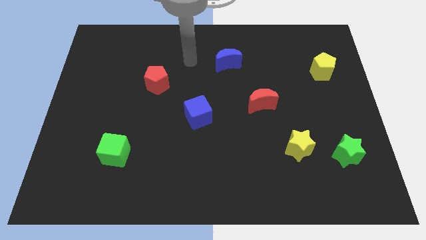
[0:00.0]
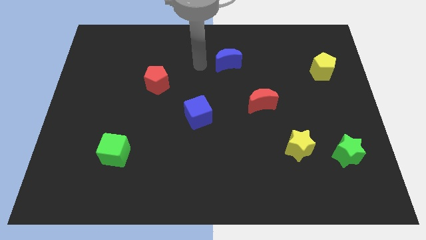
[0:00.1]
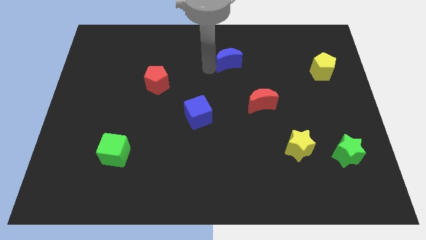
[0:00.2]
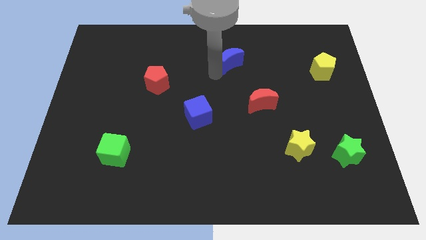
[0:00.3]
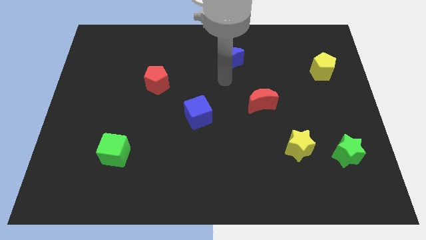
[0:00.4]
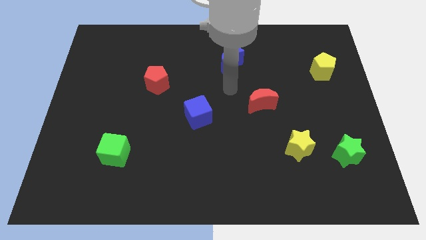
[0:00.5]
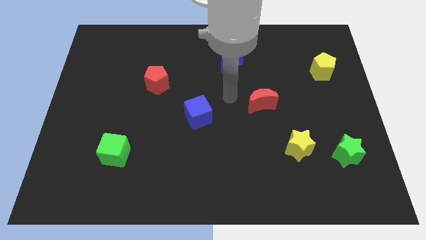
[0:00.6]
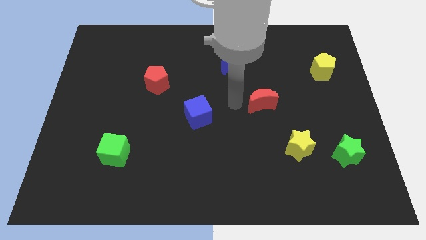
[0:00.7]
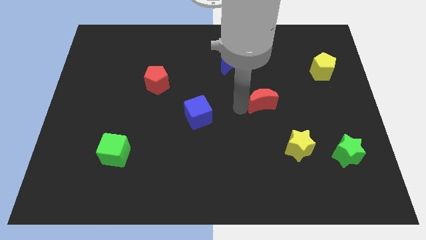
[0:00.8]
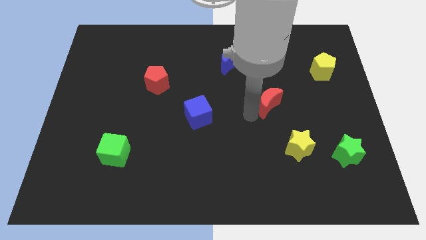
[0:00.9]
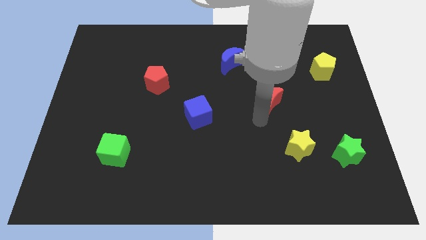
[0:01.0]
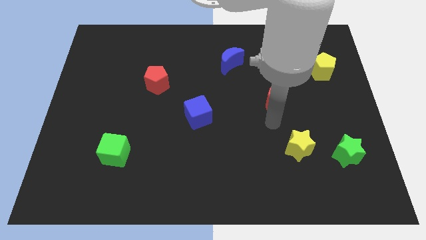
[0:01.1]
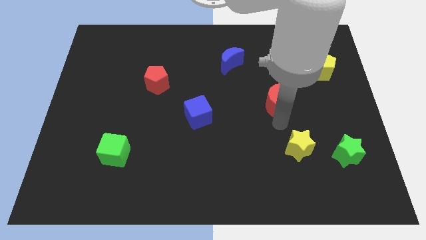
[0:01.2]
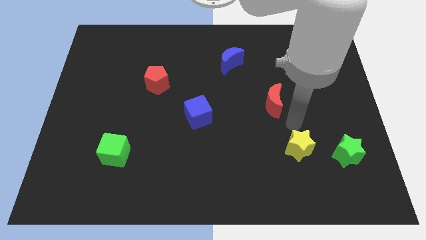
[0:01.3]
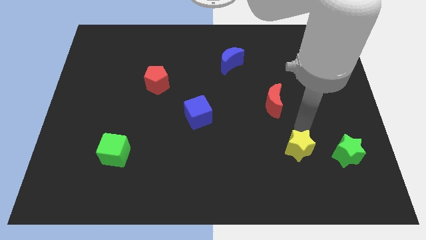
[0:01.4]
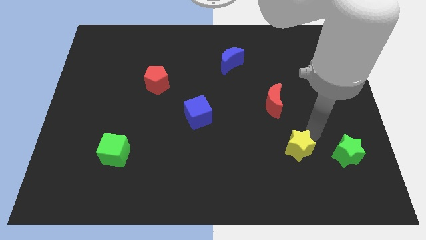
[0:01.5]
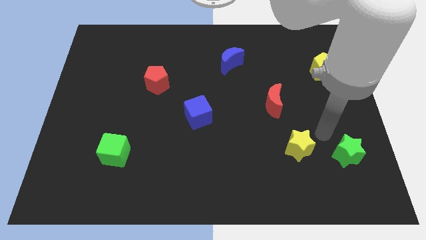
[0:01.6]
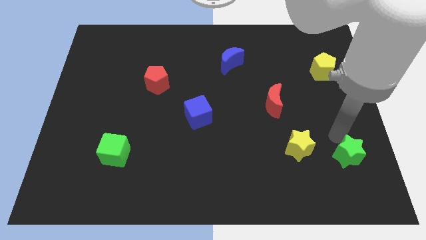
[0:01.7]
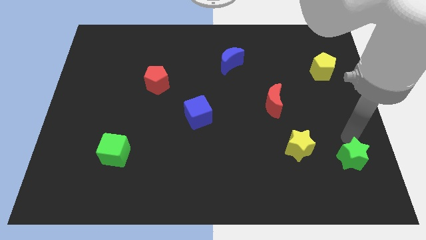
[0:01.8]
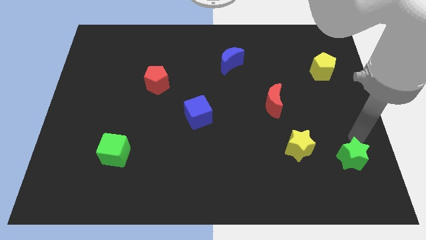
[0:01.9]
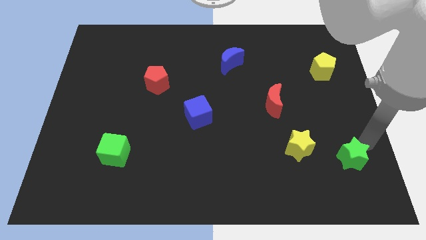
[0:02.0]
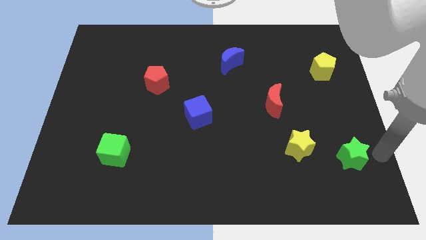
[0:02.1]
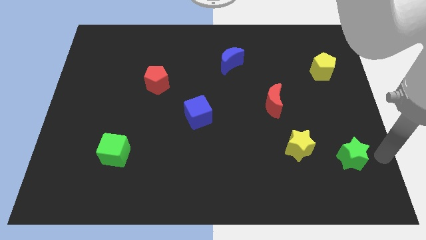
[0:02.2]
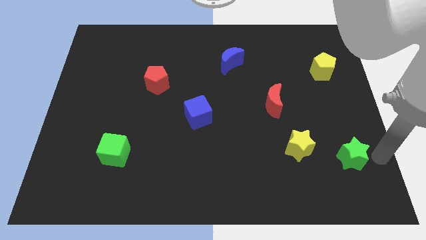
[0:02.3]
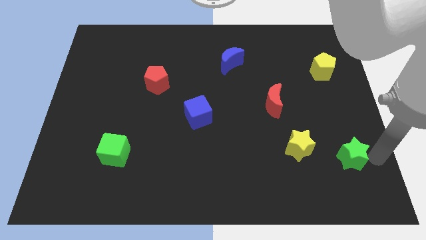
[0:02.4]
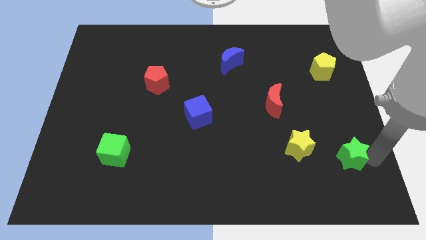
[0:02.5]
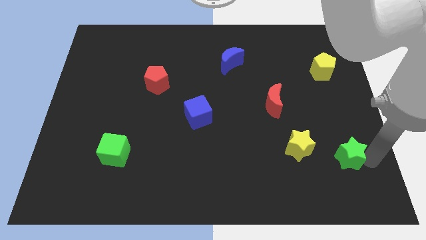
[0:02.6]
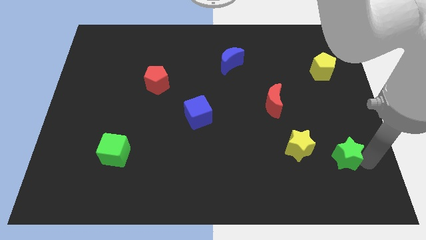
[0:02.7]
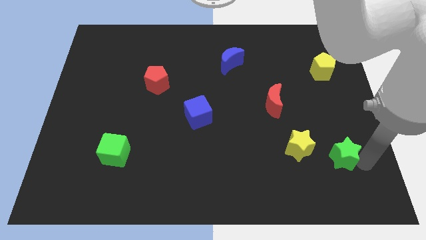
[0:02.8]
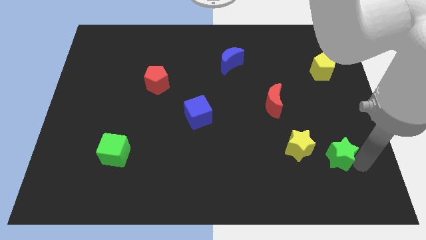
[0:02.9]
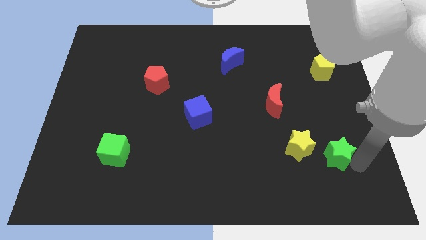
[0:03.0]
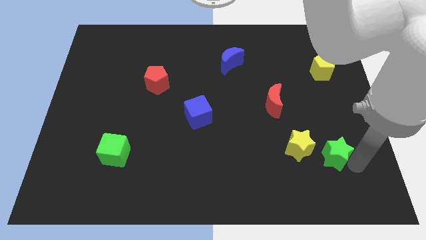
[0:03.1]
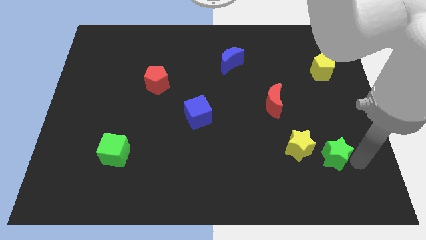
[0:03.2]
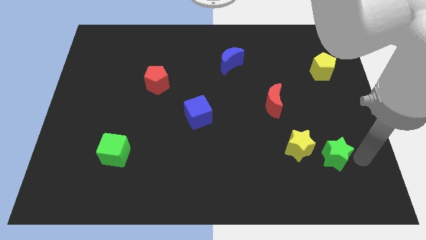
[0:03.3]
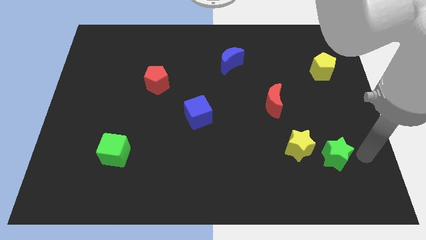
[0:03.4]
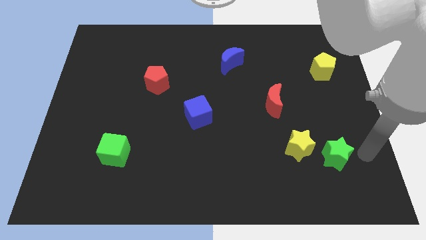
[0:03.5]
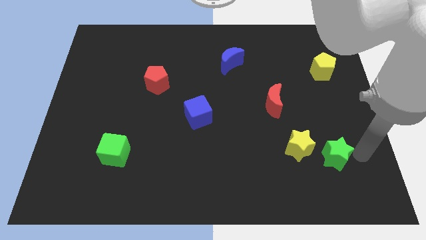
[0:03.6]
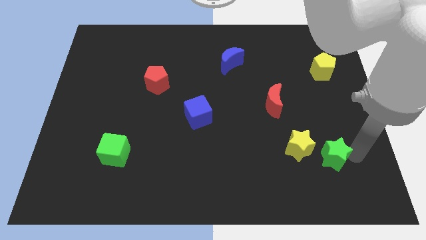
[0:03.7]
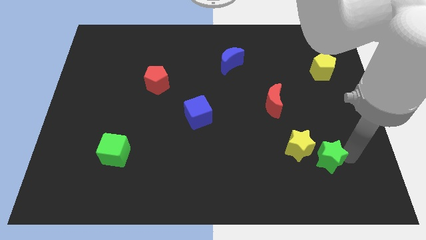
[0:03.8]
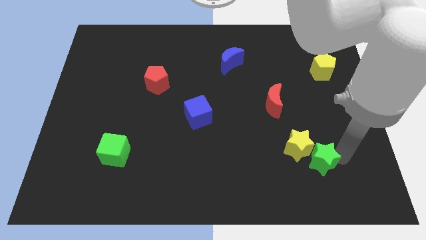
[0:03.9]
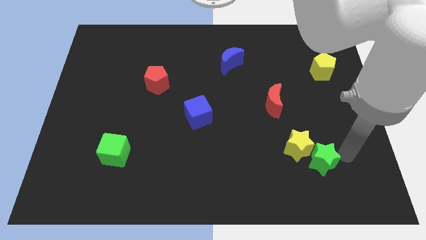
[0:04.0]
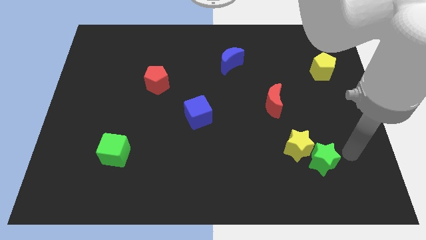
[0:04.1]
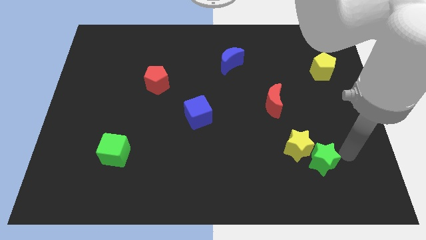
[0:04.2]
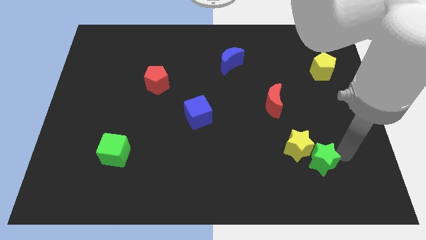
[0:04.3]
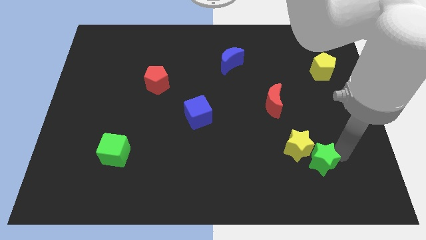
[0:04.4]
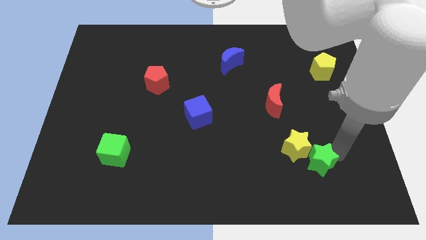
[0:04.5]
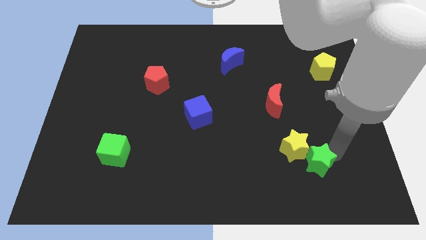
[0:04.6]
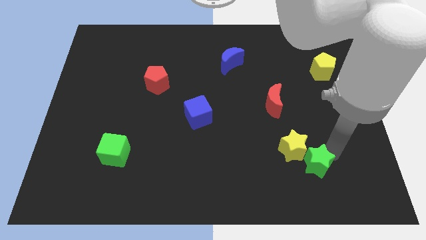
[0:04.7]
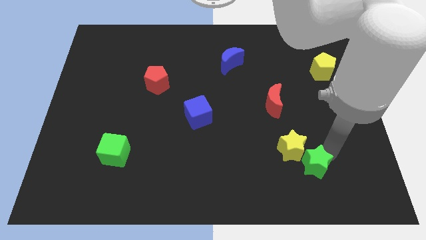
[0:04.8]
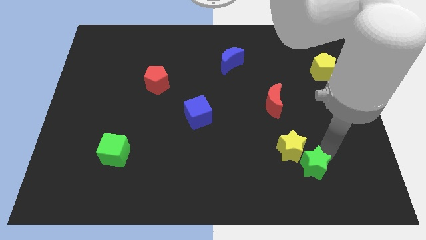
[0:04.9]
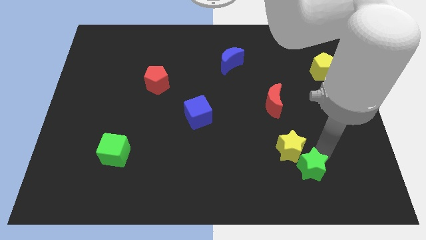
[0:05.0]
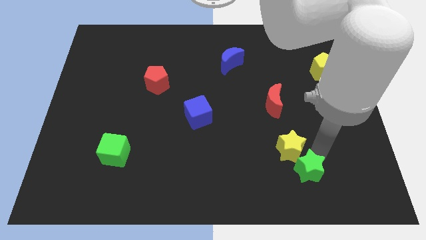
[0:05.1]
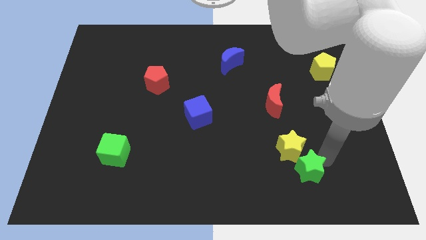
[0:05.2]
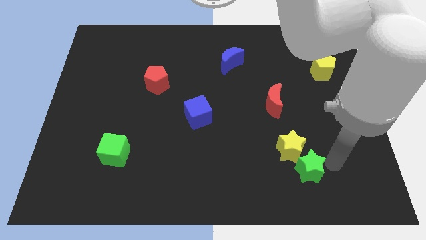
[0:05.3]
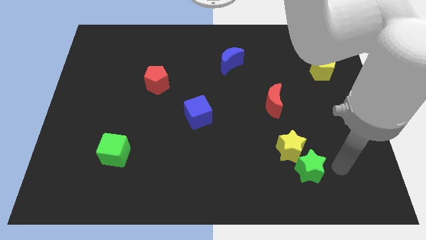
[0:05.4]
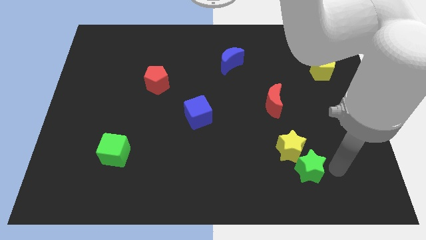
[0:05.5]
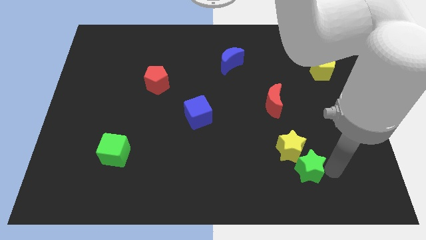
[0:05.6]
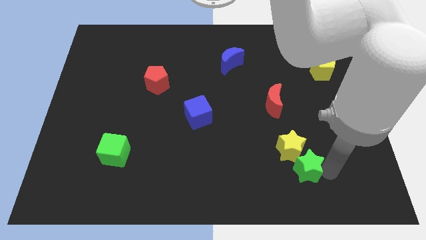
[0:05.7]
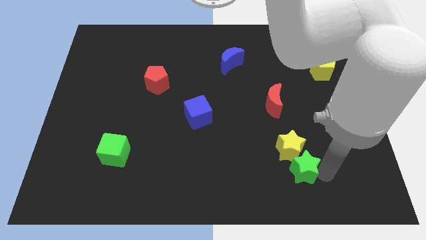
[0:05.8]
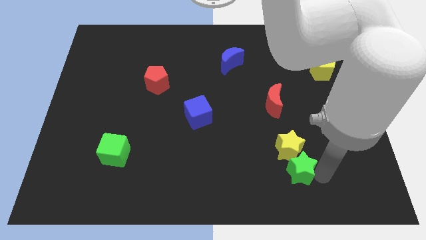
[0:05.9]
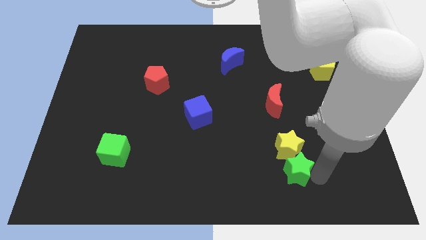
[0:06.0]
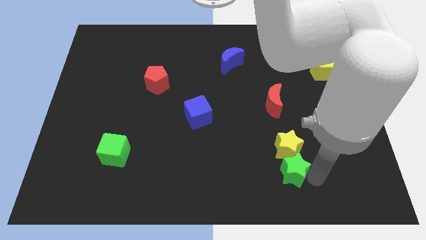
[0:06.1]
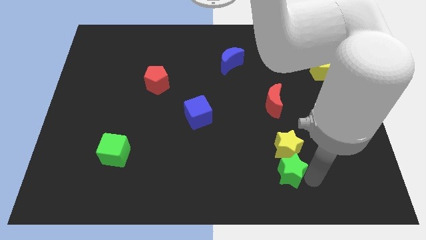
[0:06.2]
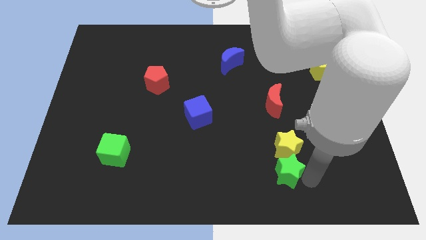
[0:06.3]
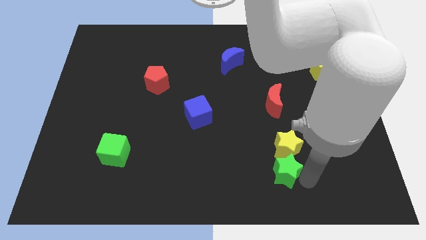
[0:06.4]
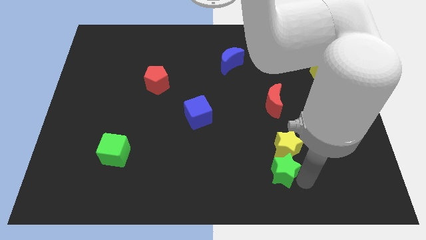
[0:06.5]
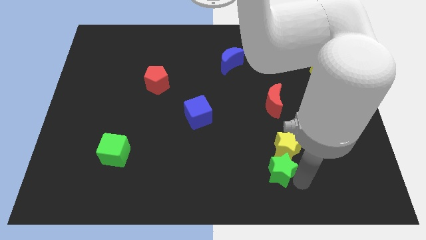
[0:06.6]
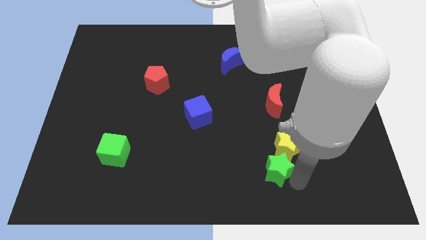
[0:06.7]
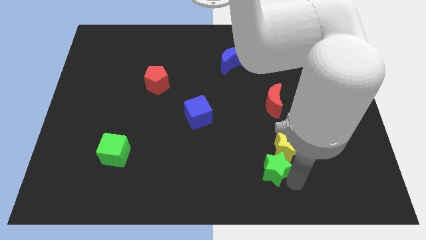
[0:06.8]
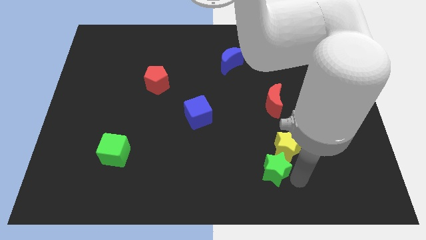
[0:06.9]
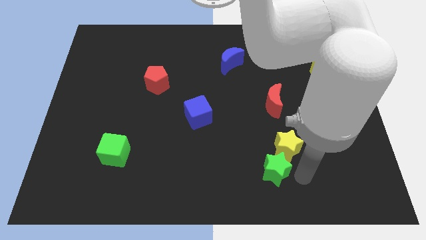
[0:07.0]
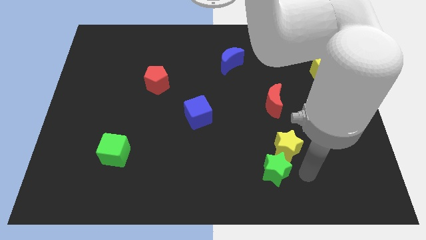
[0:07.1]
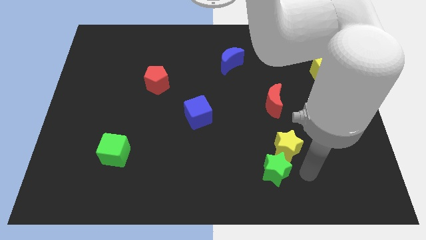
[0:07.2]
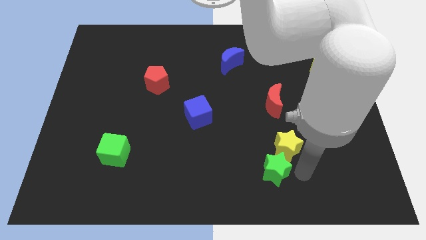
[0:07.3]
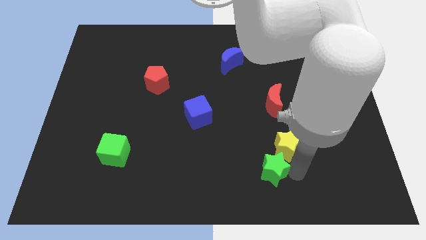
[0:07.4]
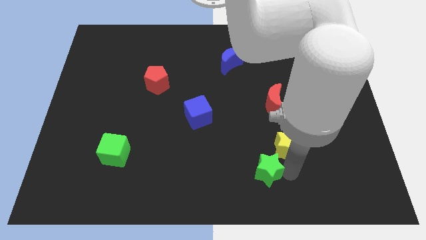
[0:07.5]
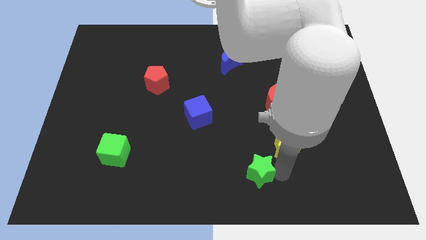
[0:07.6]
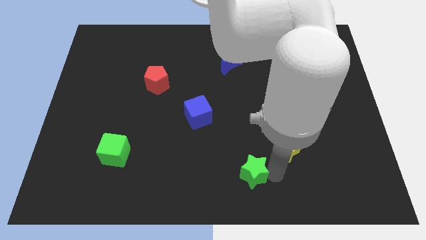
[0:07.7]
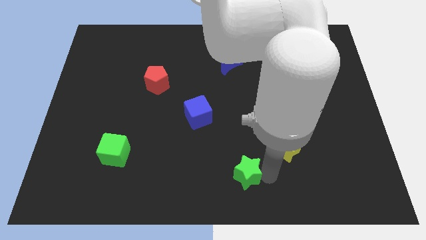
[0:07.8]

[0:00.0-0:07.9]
move the green star left
